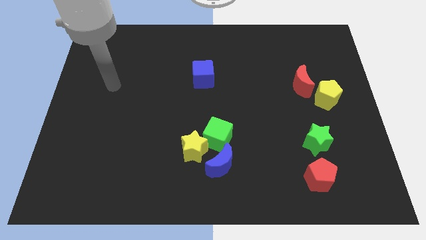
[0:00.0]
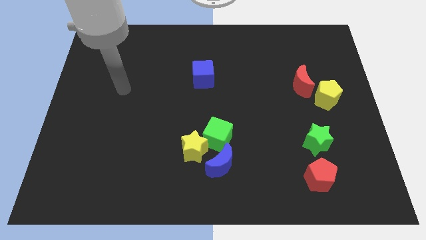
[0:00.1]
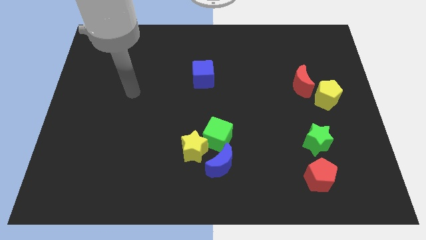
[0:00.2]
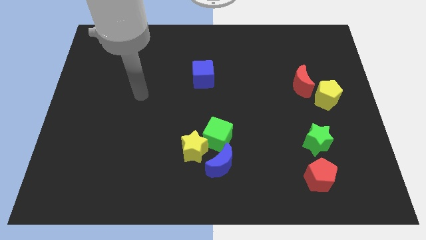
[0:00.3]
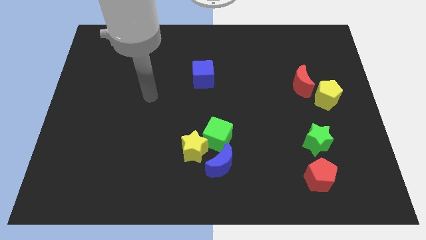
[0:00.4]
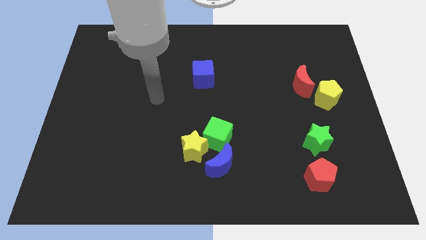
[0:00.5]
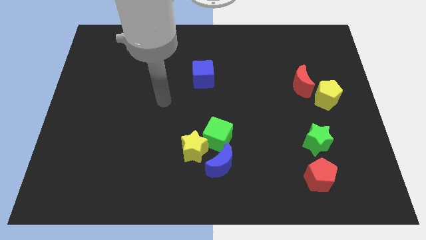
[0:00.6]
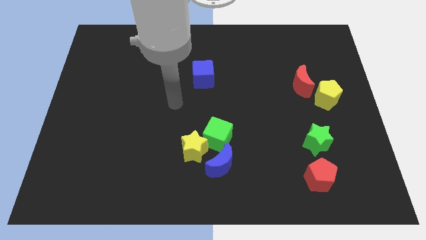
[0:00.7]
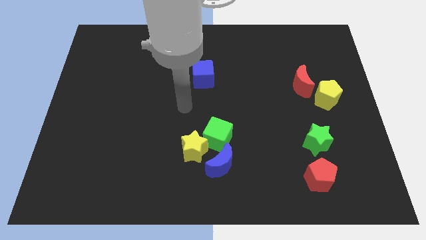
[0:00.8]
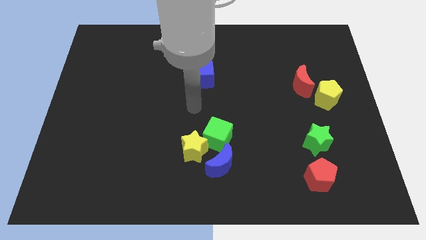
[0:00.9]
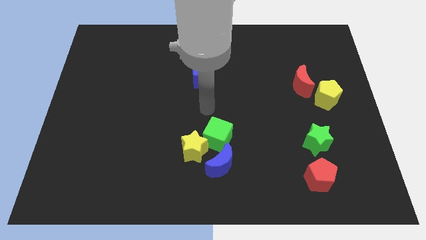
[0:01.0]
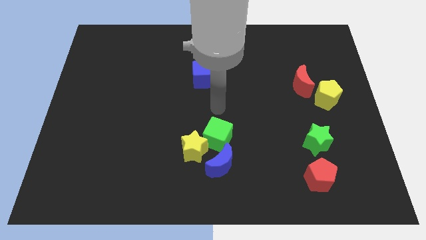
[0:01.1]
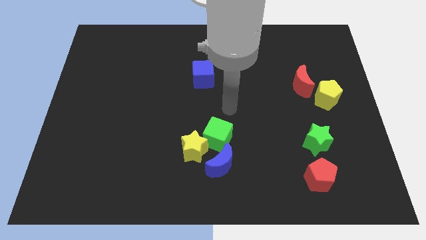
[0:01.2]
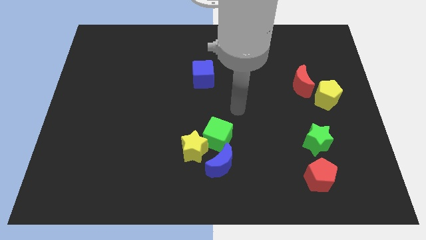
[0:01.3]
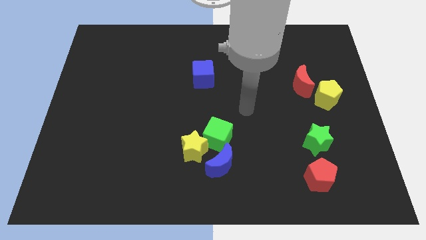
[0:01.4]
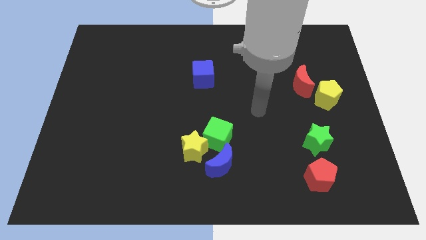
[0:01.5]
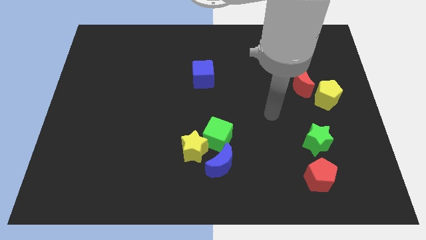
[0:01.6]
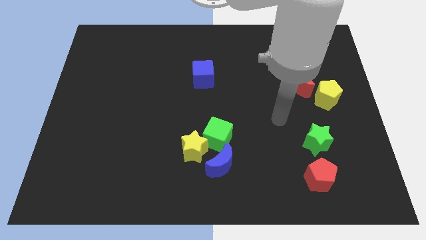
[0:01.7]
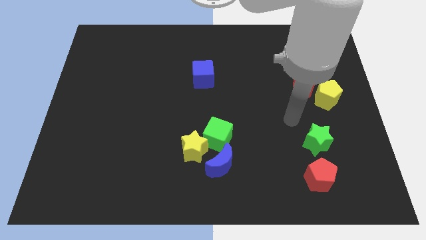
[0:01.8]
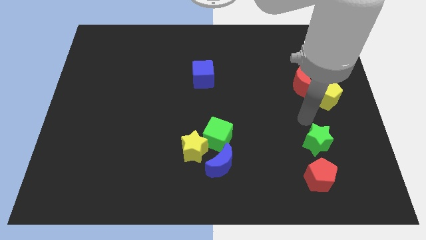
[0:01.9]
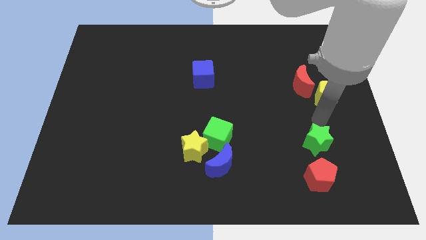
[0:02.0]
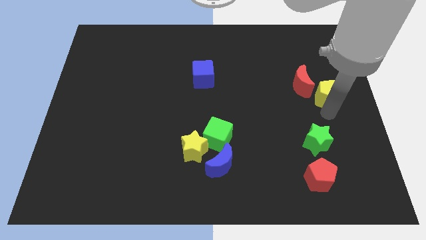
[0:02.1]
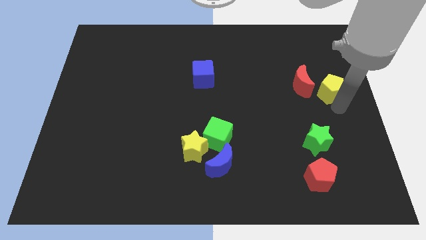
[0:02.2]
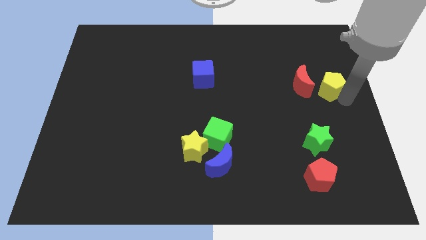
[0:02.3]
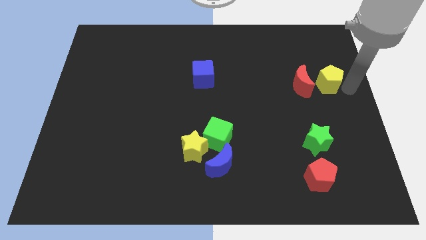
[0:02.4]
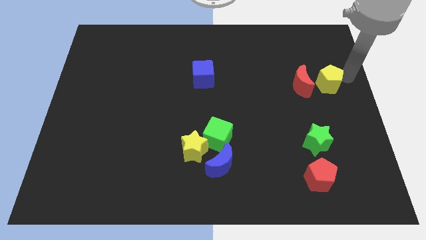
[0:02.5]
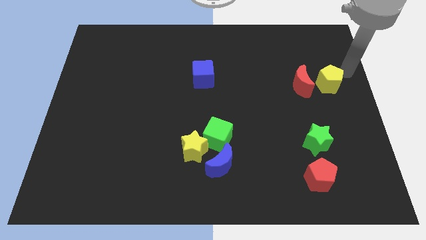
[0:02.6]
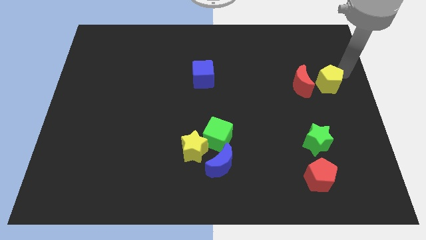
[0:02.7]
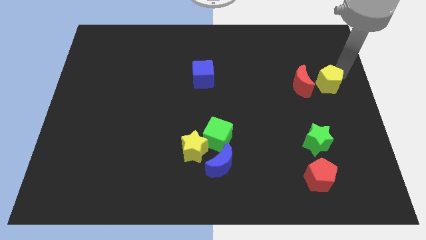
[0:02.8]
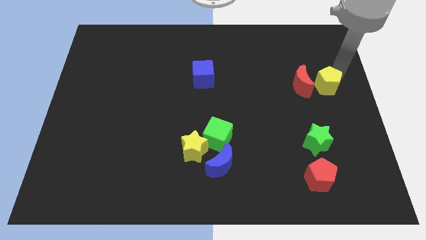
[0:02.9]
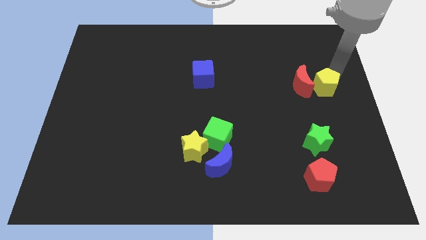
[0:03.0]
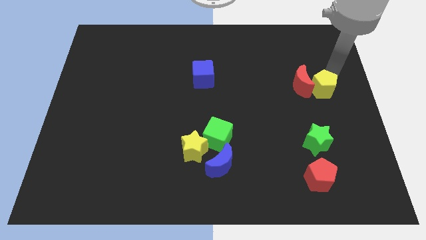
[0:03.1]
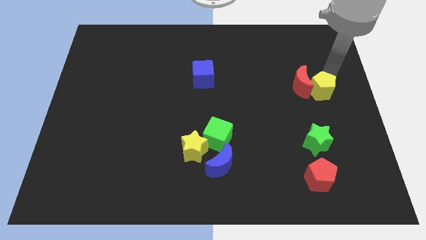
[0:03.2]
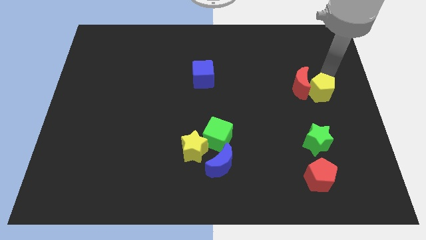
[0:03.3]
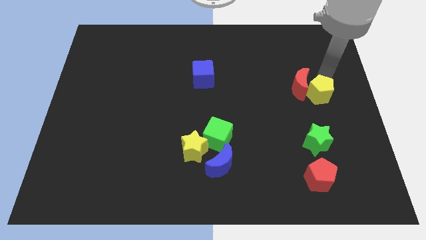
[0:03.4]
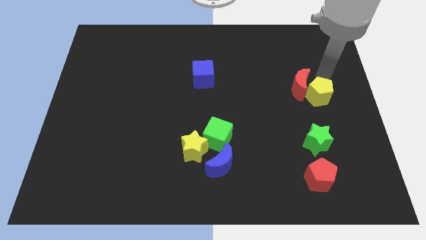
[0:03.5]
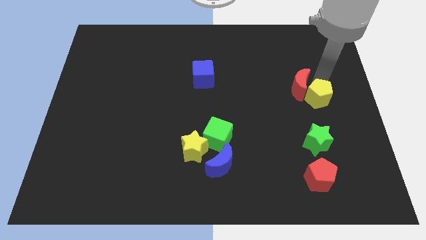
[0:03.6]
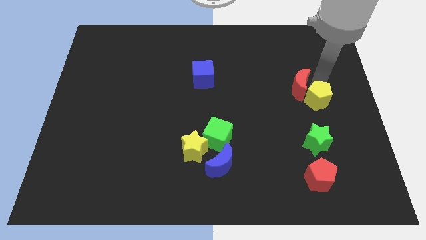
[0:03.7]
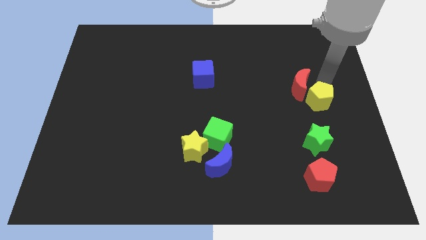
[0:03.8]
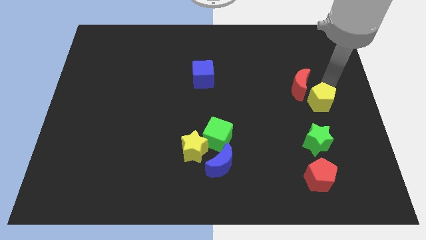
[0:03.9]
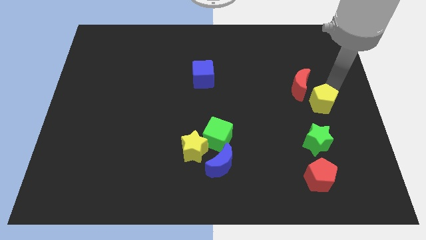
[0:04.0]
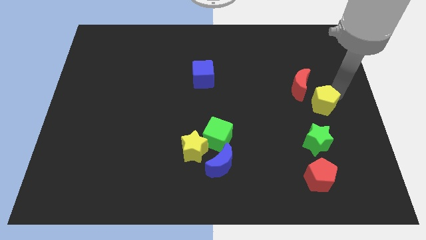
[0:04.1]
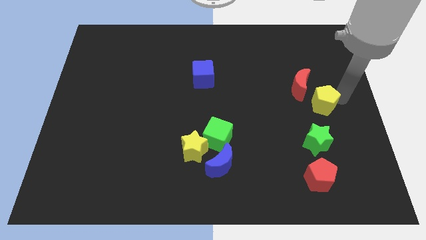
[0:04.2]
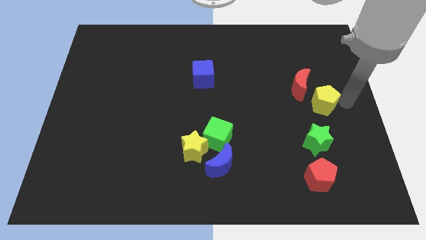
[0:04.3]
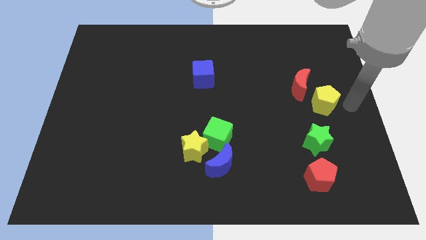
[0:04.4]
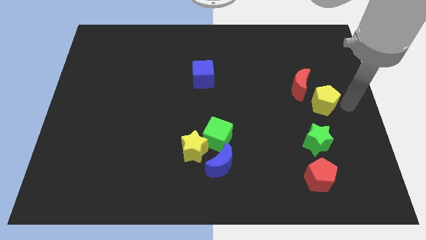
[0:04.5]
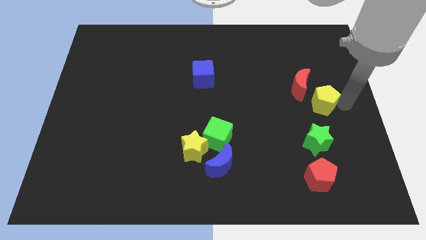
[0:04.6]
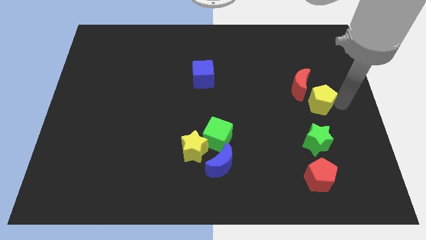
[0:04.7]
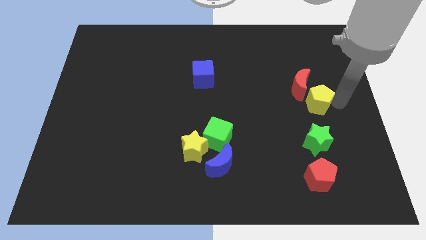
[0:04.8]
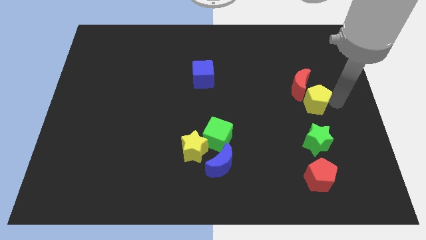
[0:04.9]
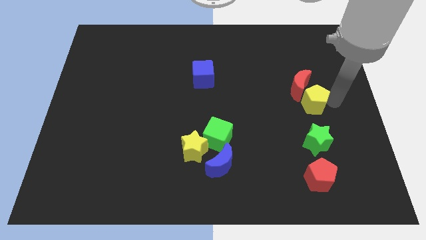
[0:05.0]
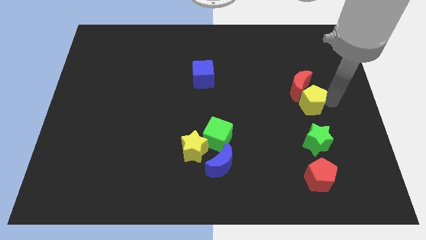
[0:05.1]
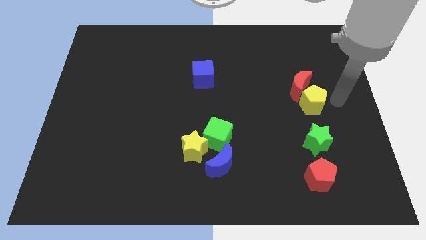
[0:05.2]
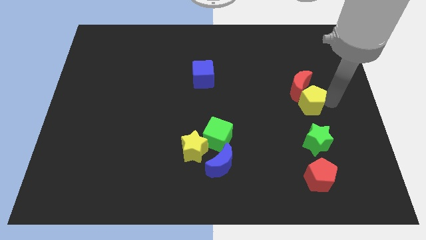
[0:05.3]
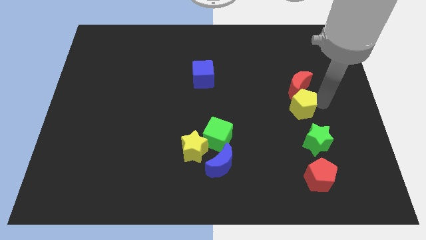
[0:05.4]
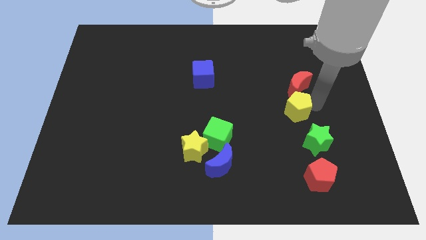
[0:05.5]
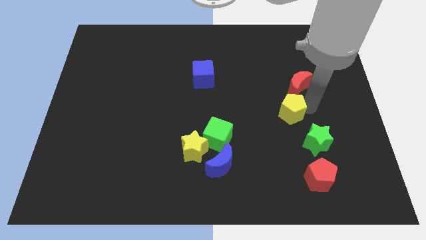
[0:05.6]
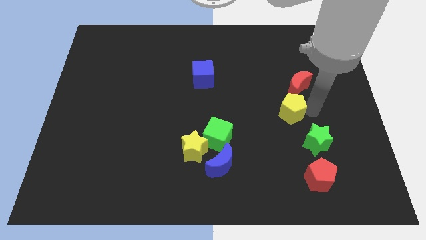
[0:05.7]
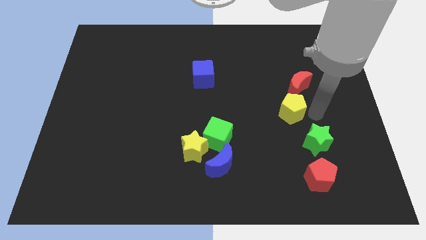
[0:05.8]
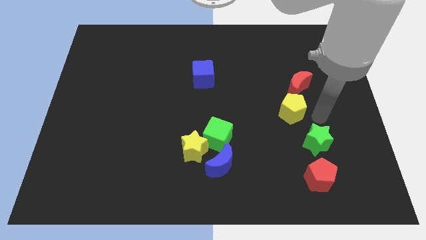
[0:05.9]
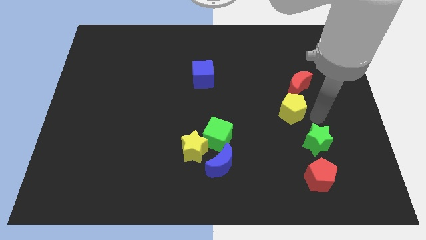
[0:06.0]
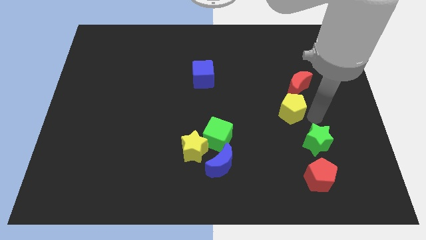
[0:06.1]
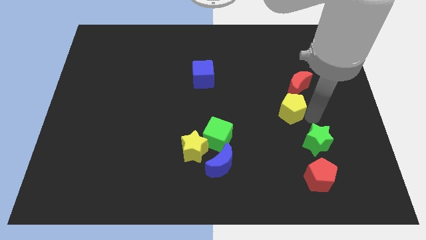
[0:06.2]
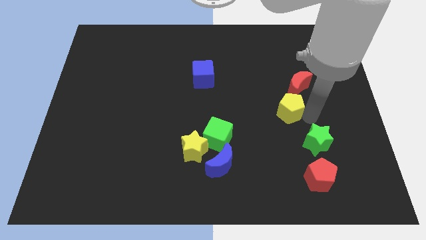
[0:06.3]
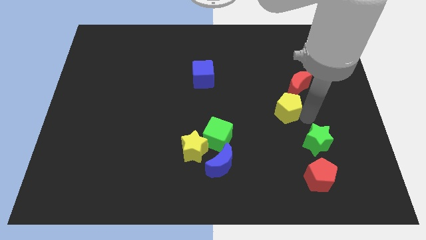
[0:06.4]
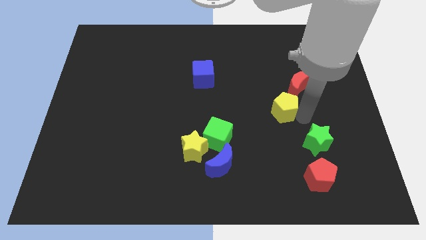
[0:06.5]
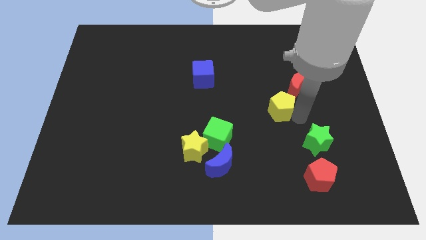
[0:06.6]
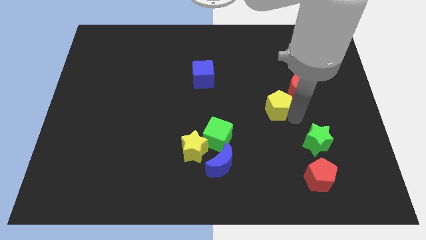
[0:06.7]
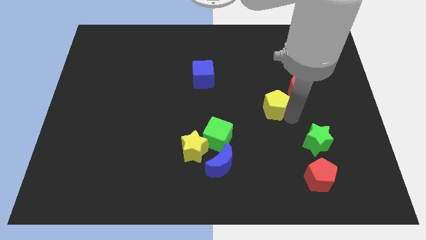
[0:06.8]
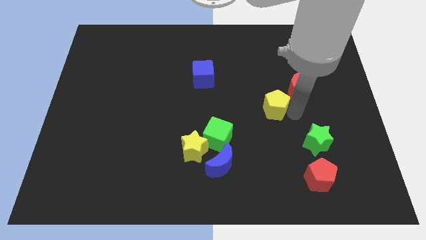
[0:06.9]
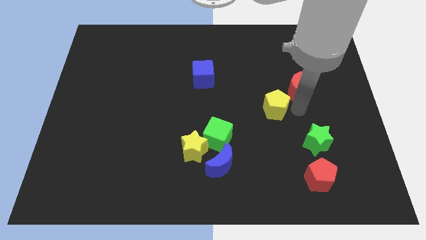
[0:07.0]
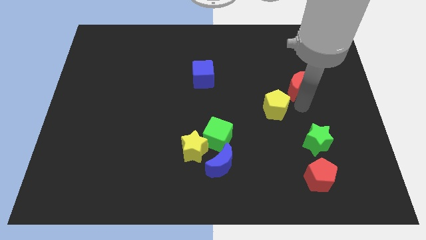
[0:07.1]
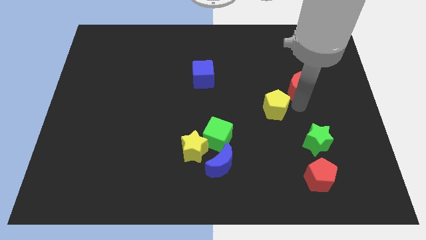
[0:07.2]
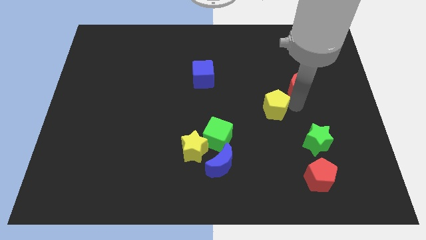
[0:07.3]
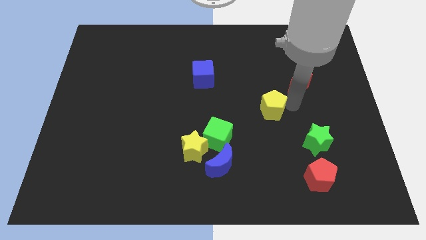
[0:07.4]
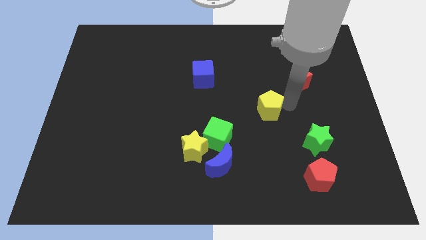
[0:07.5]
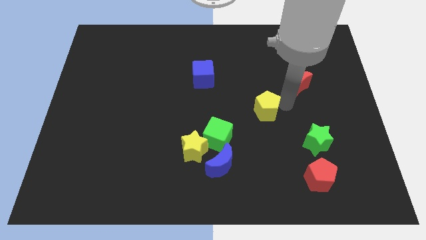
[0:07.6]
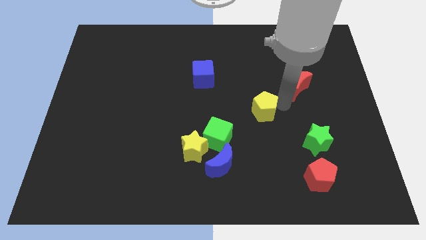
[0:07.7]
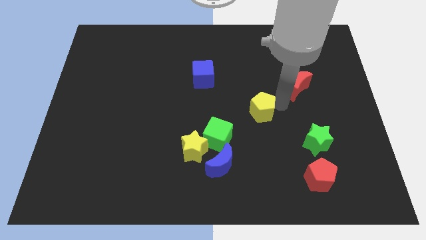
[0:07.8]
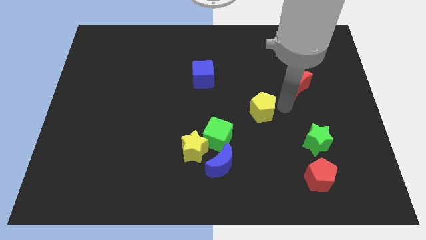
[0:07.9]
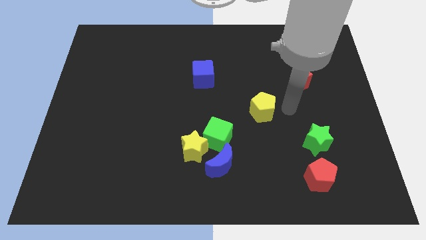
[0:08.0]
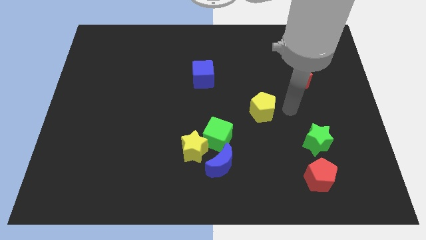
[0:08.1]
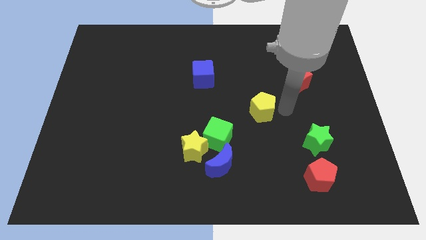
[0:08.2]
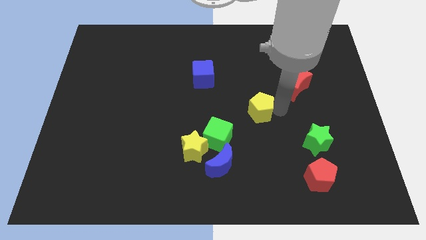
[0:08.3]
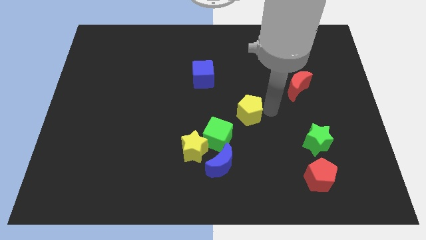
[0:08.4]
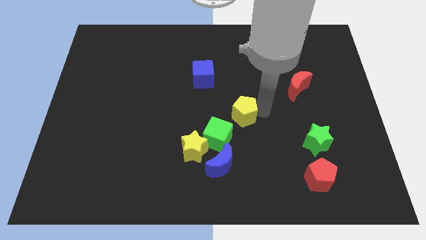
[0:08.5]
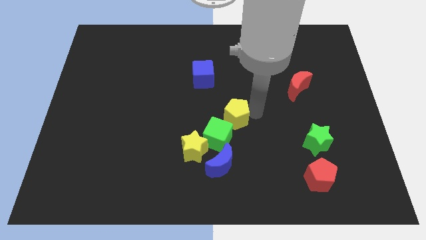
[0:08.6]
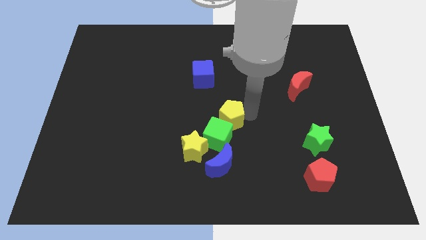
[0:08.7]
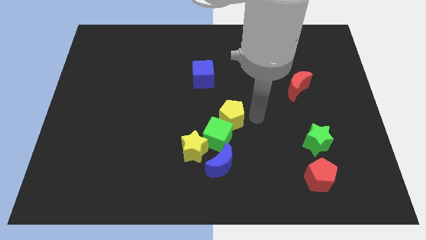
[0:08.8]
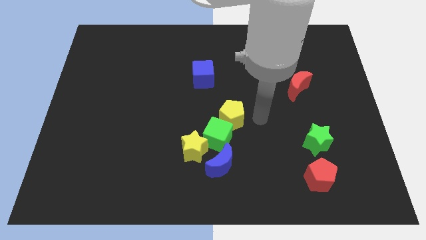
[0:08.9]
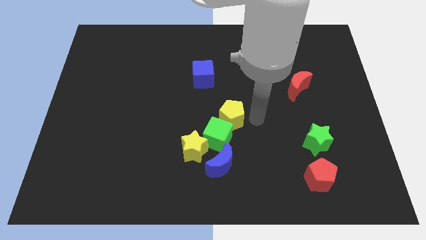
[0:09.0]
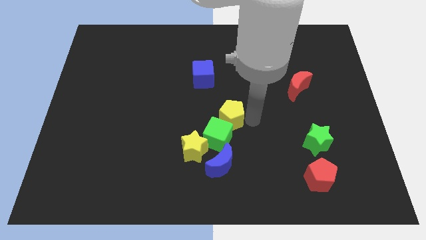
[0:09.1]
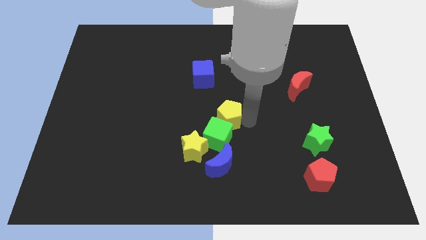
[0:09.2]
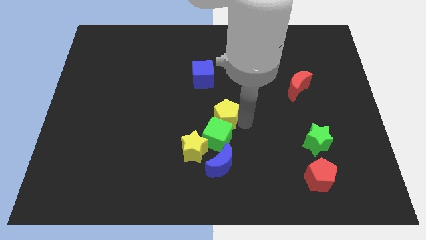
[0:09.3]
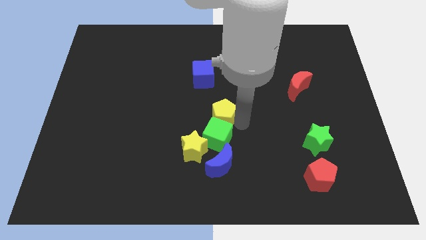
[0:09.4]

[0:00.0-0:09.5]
put the yellow pentagon to the top left of the green cube
